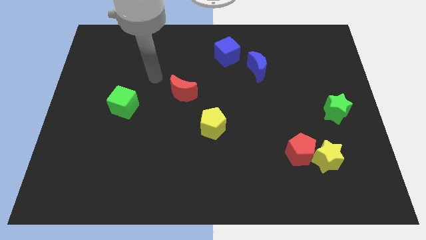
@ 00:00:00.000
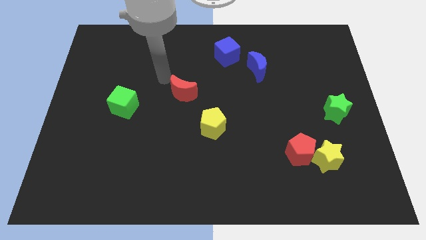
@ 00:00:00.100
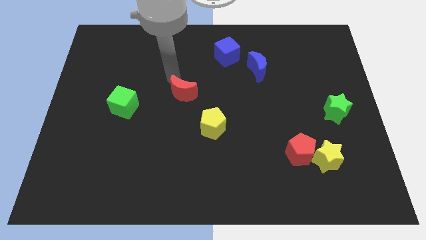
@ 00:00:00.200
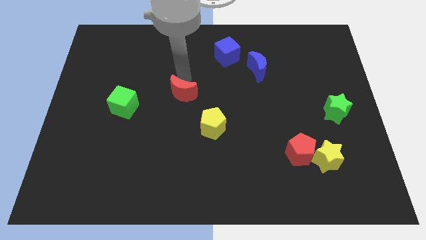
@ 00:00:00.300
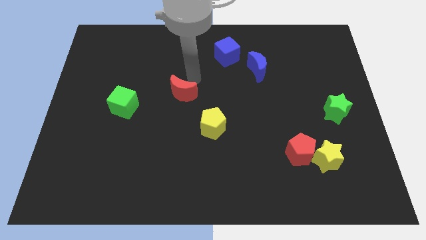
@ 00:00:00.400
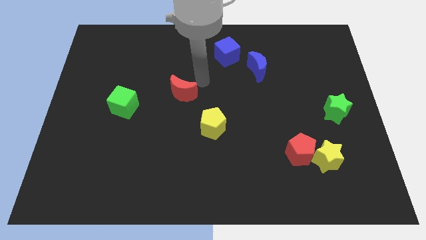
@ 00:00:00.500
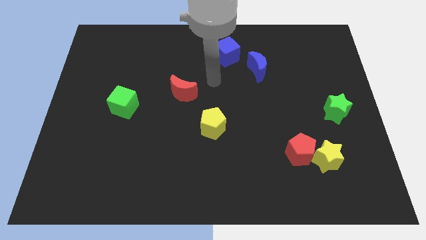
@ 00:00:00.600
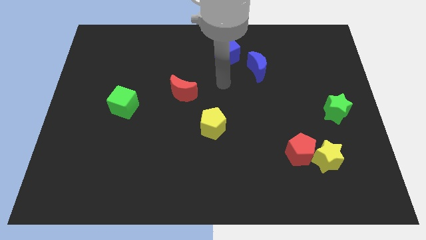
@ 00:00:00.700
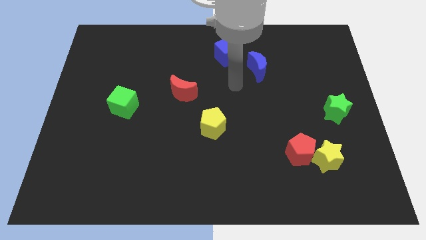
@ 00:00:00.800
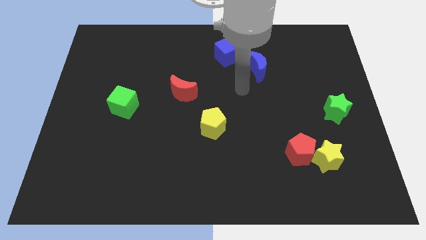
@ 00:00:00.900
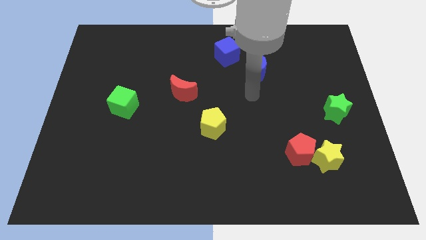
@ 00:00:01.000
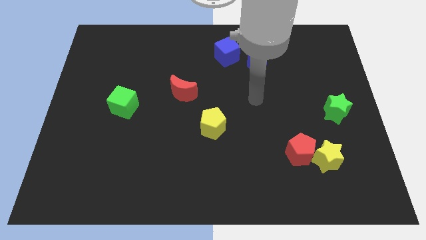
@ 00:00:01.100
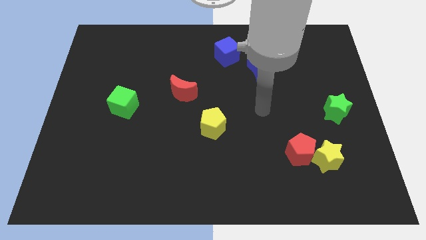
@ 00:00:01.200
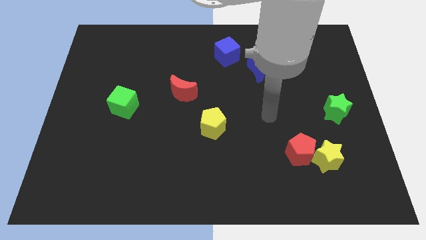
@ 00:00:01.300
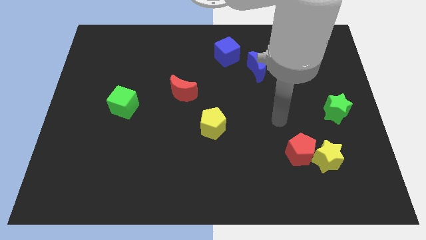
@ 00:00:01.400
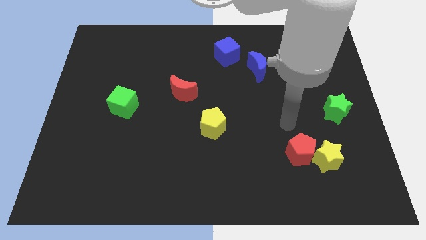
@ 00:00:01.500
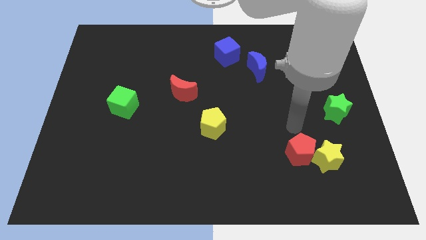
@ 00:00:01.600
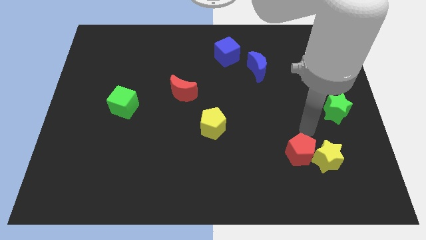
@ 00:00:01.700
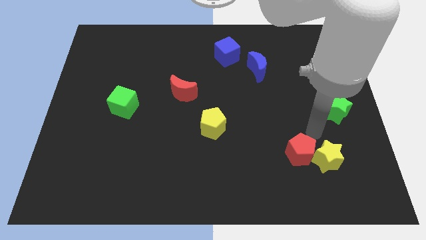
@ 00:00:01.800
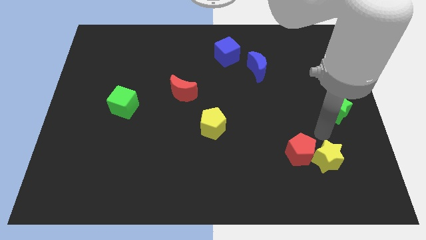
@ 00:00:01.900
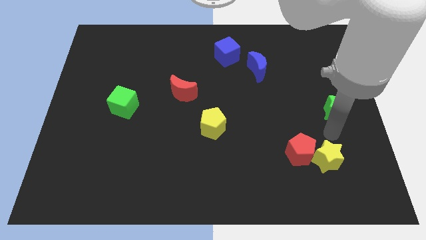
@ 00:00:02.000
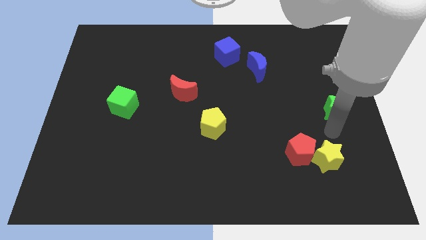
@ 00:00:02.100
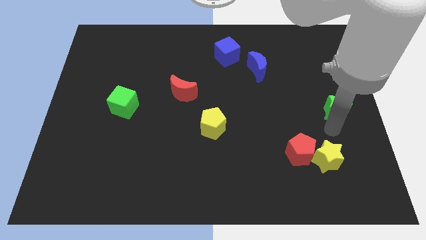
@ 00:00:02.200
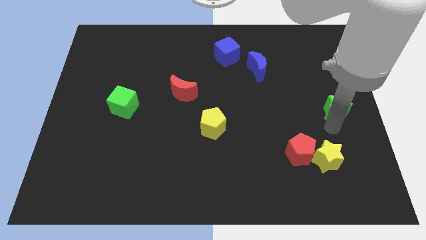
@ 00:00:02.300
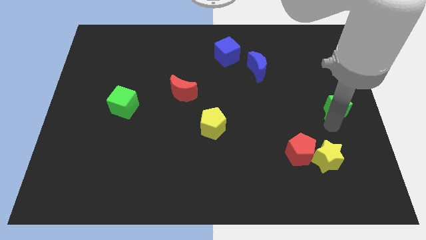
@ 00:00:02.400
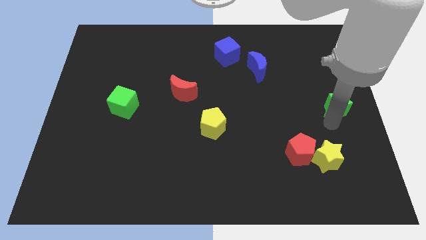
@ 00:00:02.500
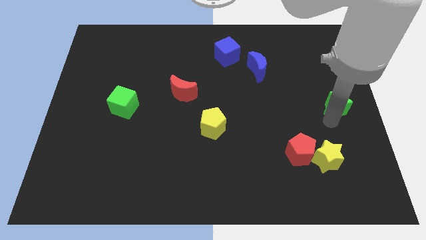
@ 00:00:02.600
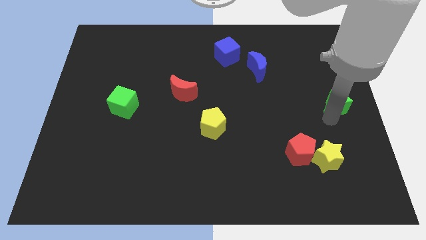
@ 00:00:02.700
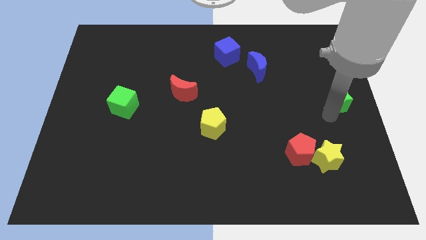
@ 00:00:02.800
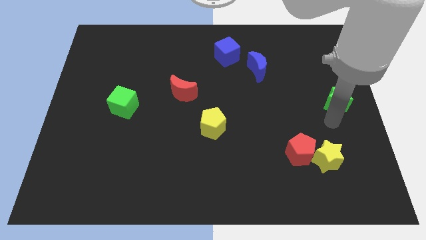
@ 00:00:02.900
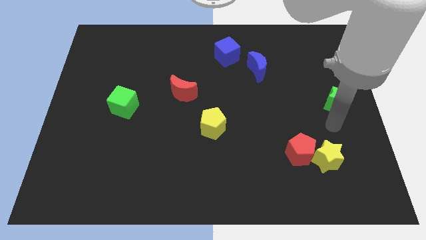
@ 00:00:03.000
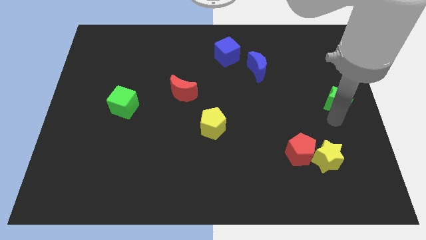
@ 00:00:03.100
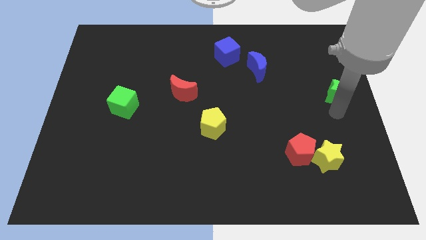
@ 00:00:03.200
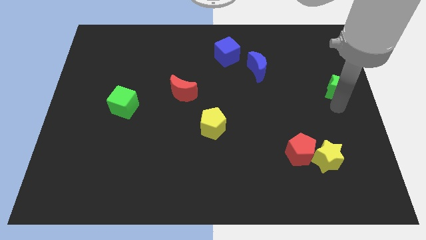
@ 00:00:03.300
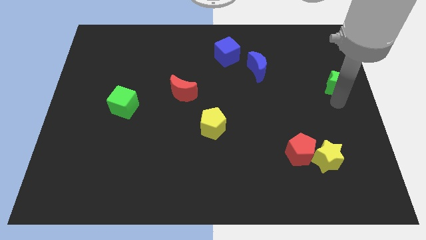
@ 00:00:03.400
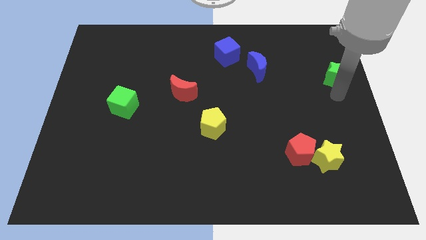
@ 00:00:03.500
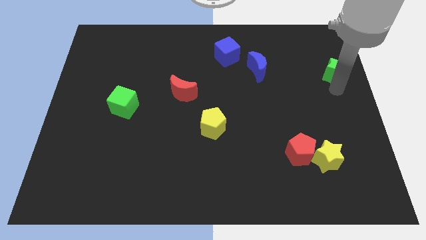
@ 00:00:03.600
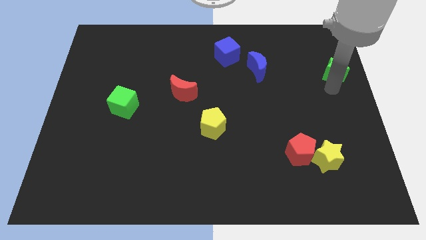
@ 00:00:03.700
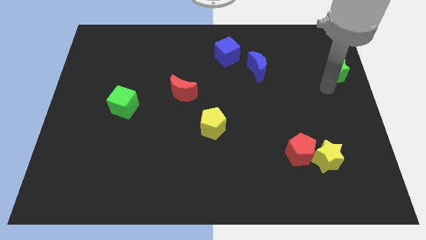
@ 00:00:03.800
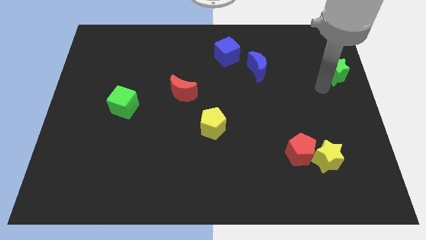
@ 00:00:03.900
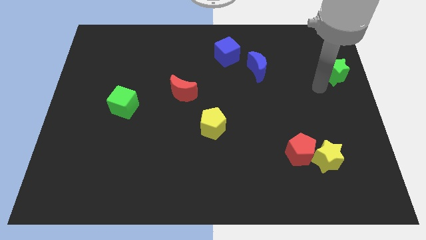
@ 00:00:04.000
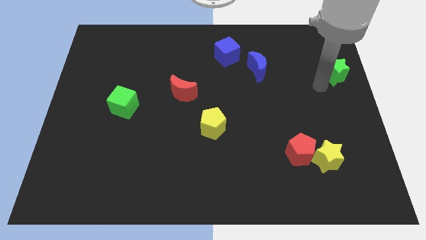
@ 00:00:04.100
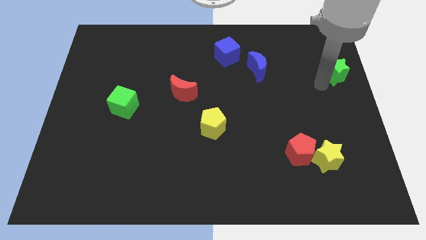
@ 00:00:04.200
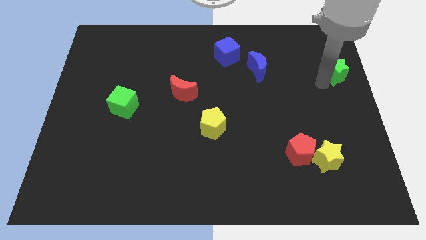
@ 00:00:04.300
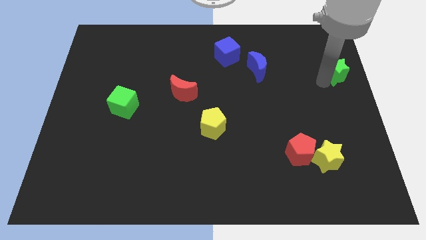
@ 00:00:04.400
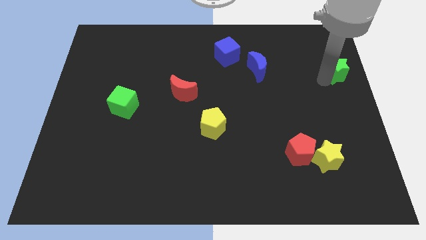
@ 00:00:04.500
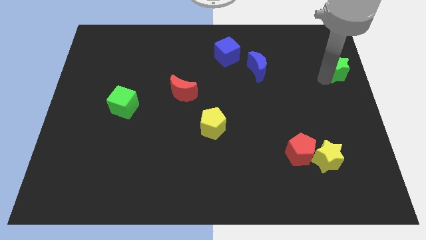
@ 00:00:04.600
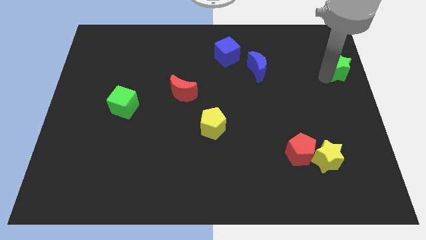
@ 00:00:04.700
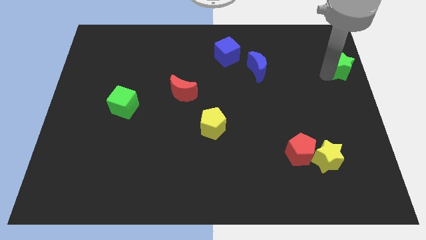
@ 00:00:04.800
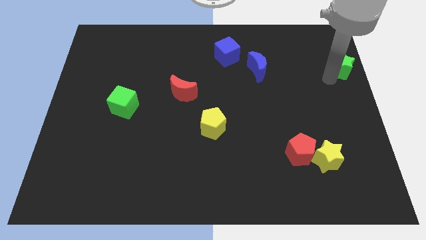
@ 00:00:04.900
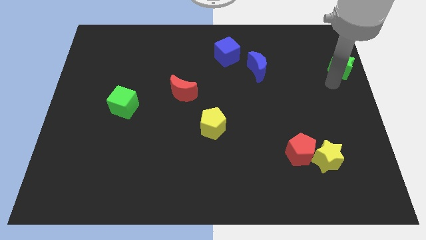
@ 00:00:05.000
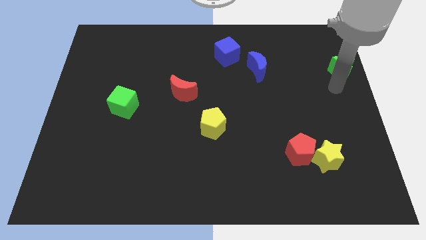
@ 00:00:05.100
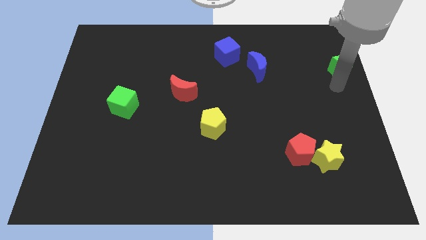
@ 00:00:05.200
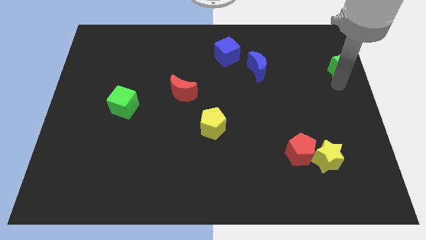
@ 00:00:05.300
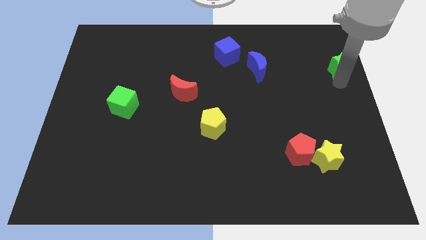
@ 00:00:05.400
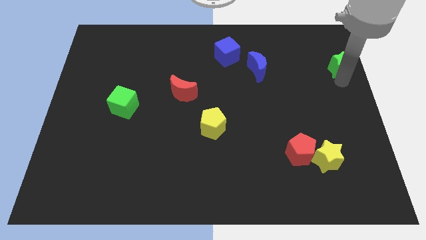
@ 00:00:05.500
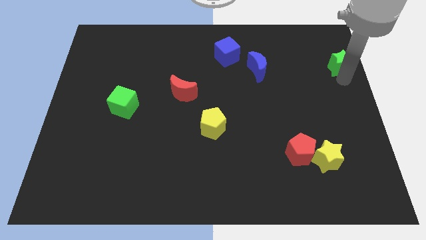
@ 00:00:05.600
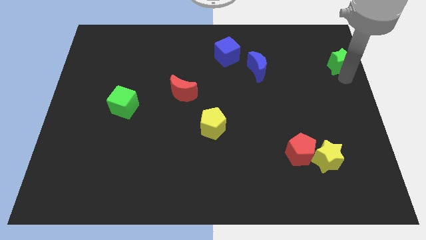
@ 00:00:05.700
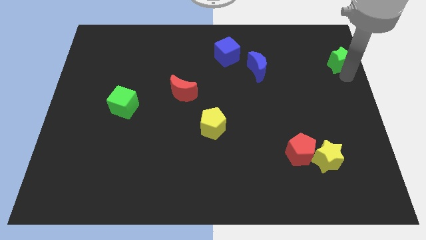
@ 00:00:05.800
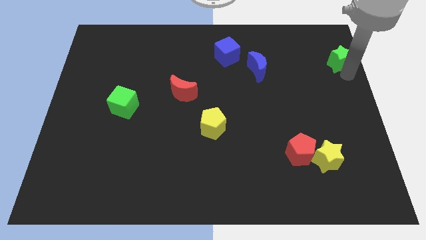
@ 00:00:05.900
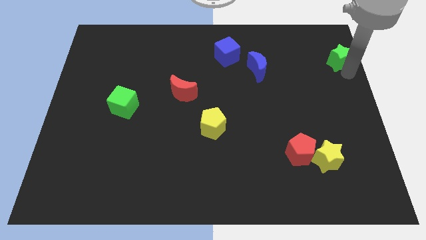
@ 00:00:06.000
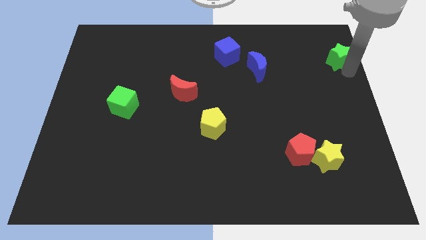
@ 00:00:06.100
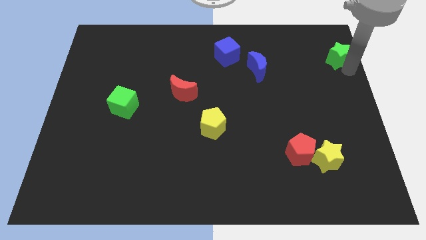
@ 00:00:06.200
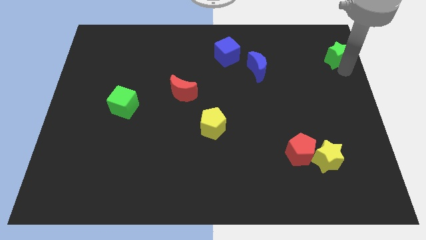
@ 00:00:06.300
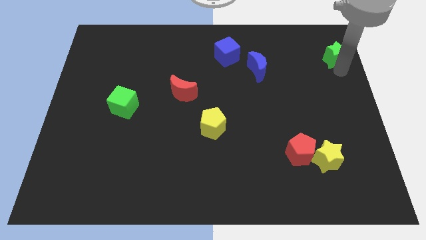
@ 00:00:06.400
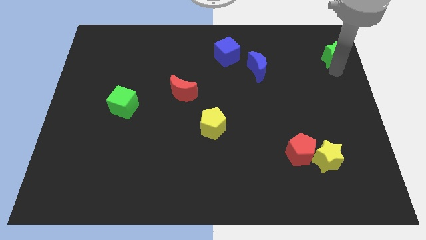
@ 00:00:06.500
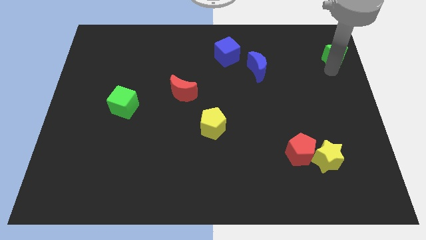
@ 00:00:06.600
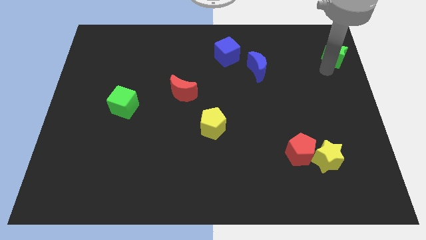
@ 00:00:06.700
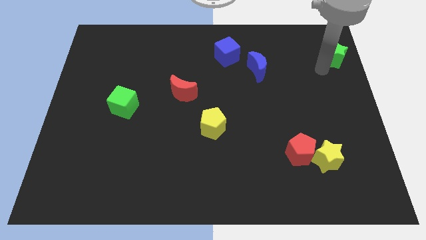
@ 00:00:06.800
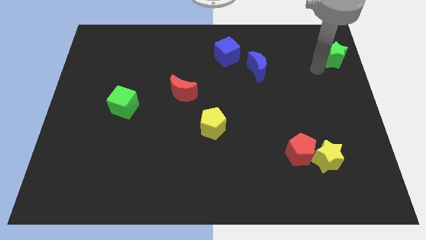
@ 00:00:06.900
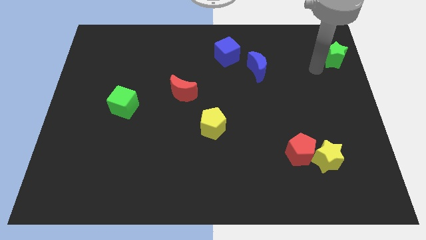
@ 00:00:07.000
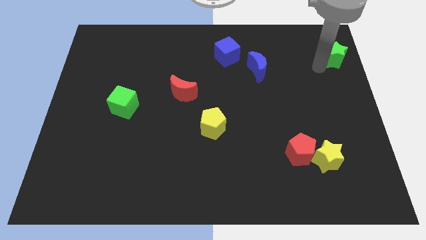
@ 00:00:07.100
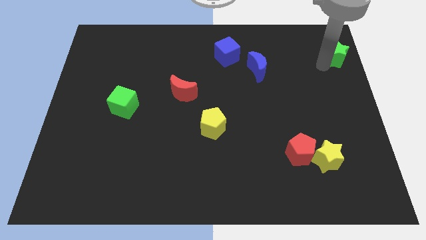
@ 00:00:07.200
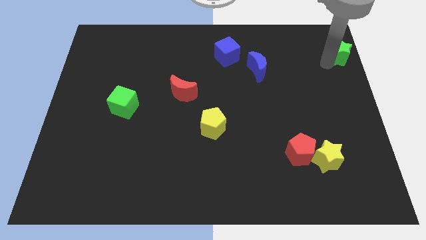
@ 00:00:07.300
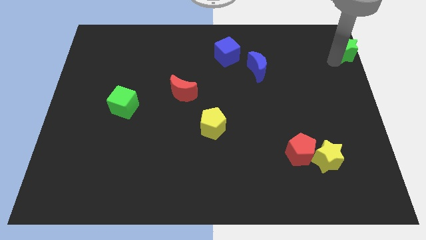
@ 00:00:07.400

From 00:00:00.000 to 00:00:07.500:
push the green star to the top right corner
